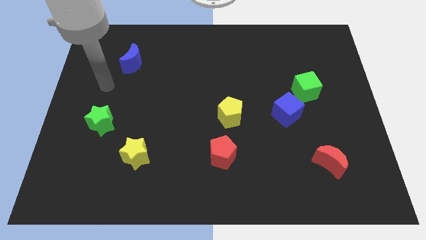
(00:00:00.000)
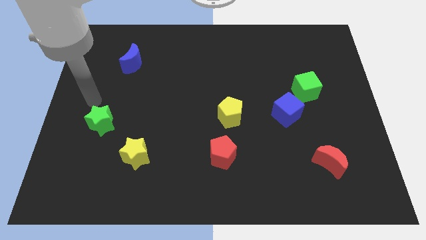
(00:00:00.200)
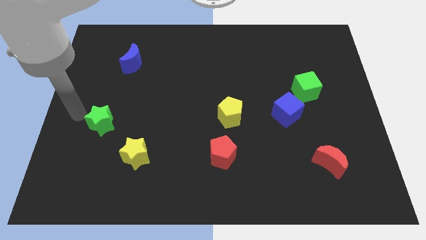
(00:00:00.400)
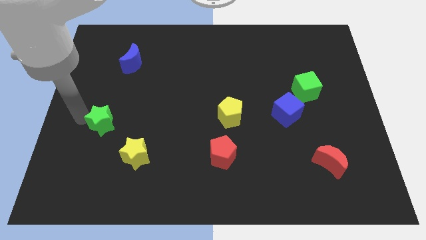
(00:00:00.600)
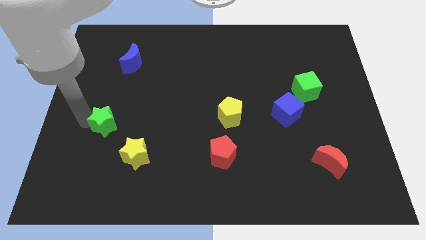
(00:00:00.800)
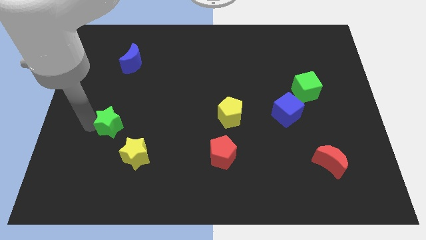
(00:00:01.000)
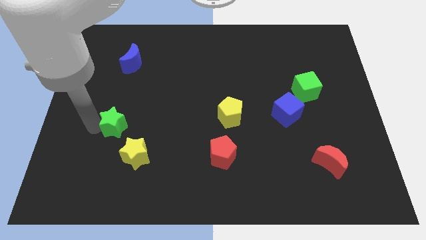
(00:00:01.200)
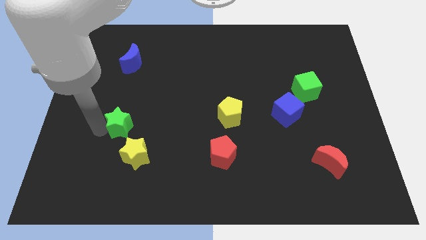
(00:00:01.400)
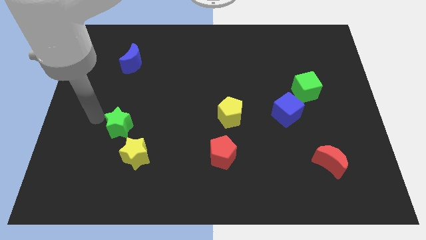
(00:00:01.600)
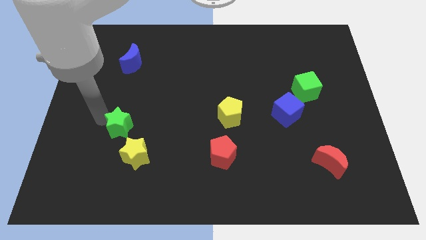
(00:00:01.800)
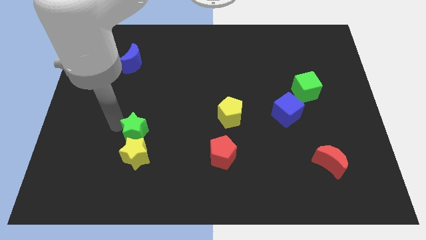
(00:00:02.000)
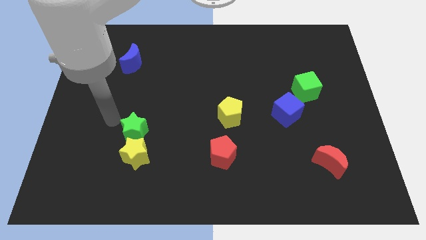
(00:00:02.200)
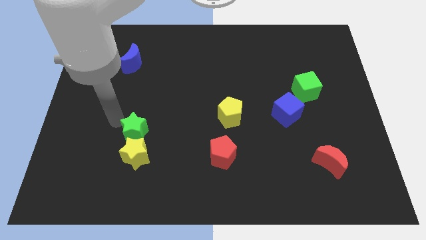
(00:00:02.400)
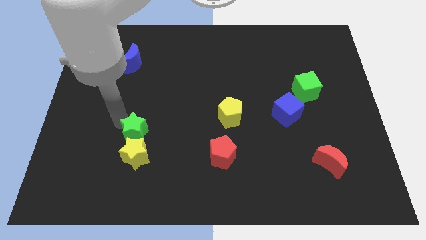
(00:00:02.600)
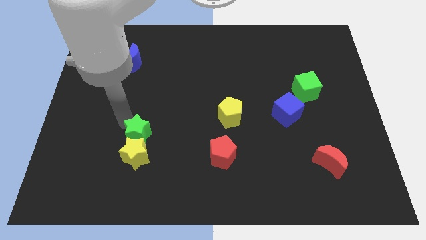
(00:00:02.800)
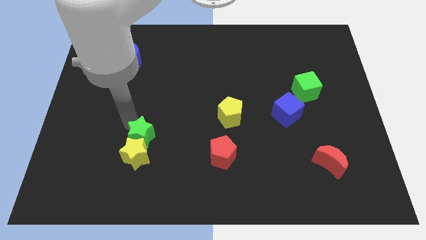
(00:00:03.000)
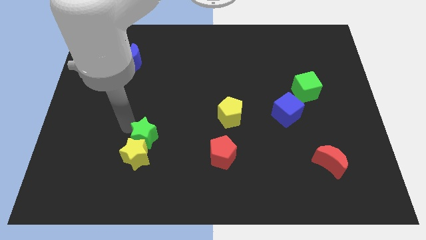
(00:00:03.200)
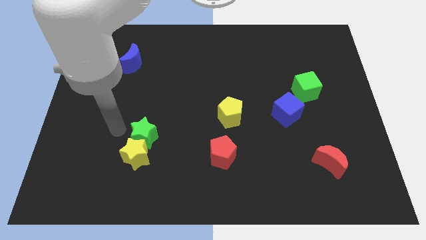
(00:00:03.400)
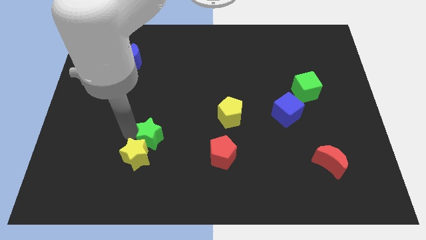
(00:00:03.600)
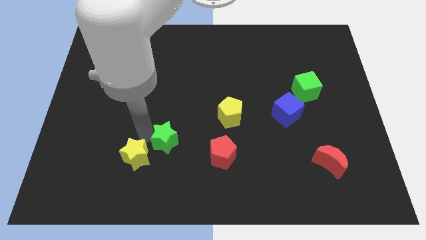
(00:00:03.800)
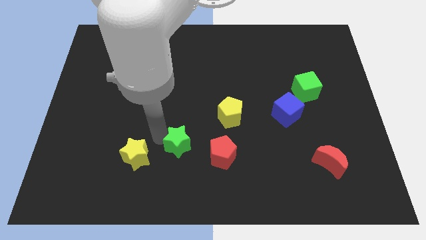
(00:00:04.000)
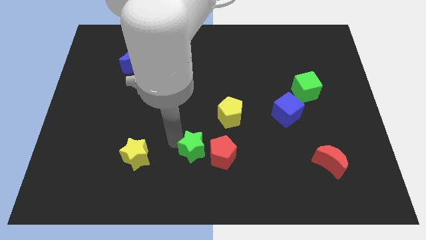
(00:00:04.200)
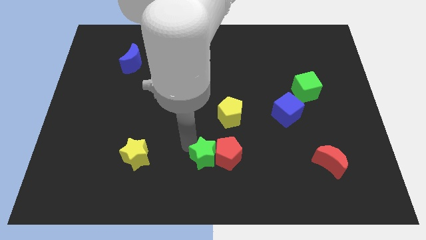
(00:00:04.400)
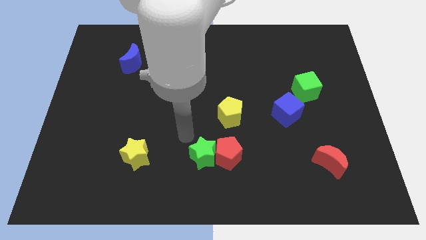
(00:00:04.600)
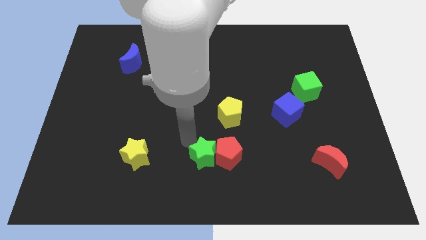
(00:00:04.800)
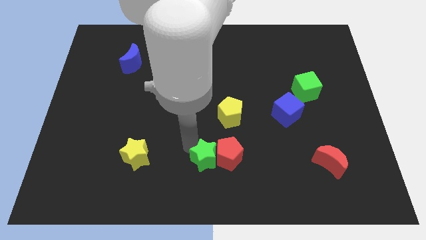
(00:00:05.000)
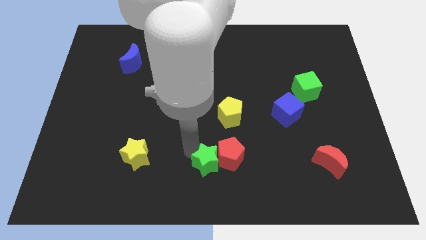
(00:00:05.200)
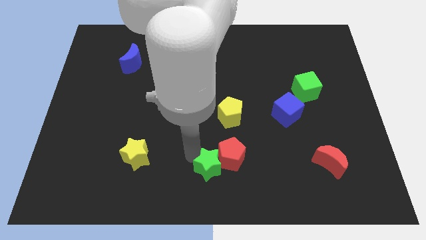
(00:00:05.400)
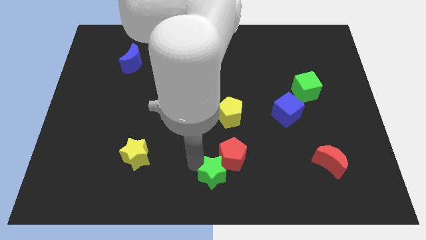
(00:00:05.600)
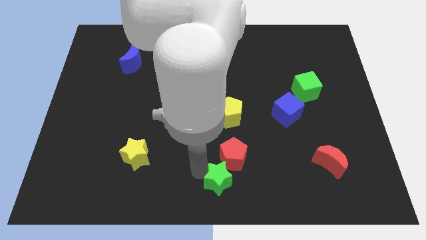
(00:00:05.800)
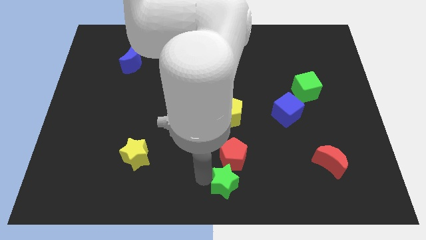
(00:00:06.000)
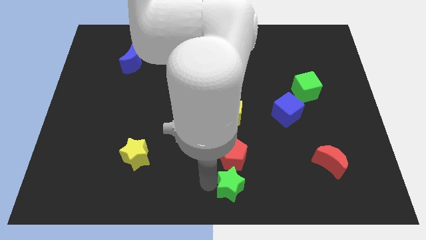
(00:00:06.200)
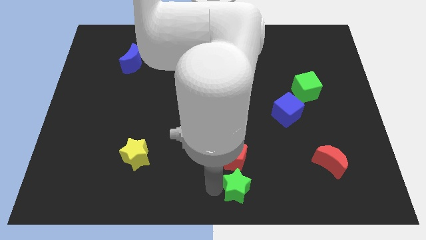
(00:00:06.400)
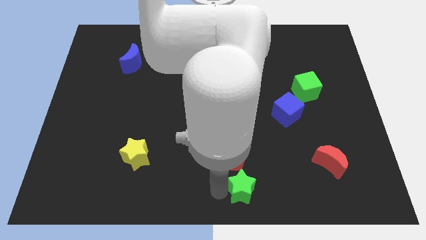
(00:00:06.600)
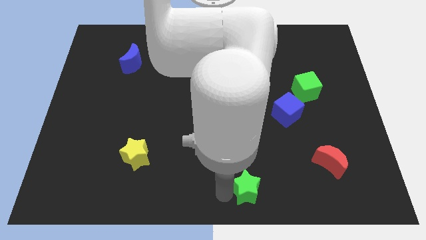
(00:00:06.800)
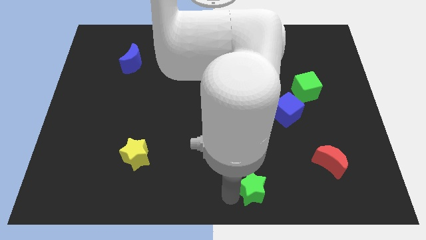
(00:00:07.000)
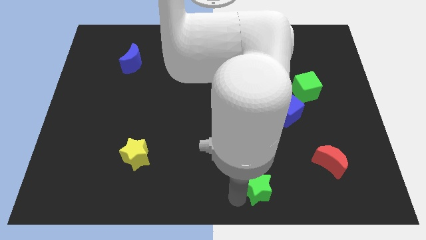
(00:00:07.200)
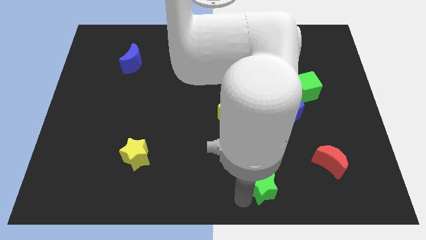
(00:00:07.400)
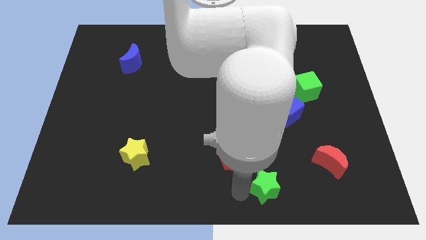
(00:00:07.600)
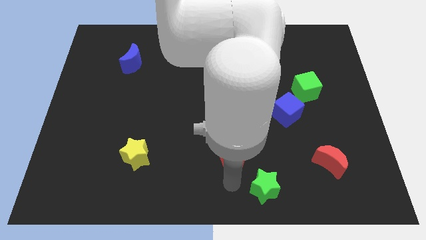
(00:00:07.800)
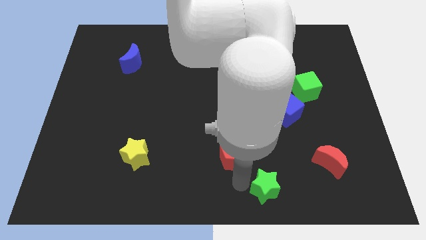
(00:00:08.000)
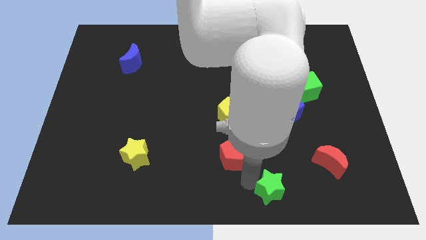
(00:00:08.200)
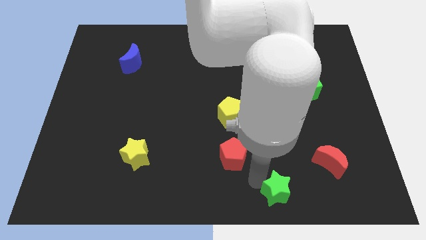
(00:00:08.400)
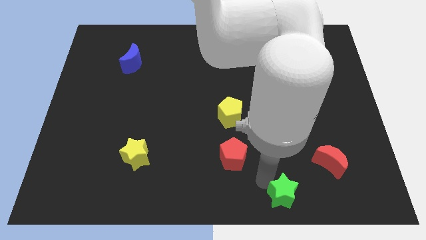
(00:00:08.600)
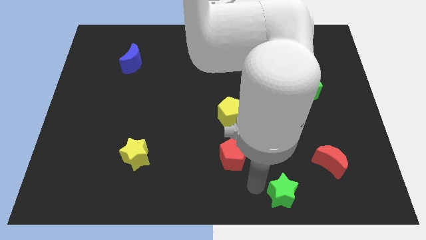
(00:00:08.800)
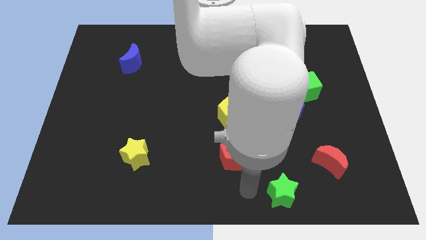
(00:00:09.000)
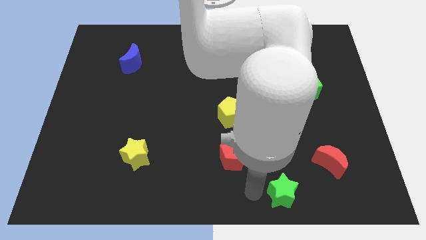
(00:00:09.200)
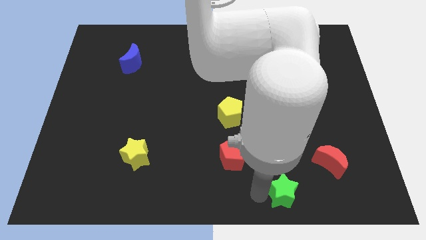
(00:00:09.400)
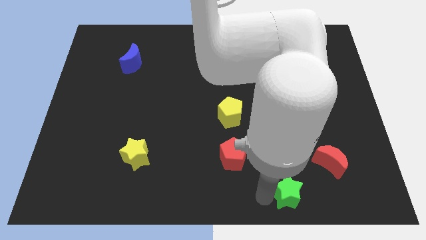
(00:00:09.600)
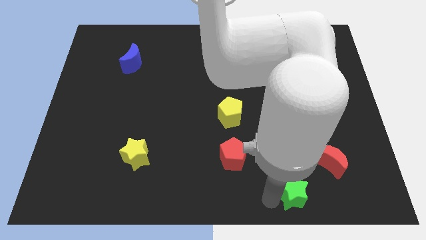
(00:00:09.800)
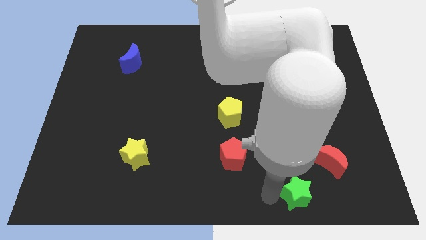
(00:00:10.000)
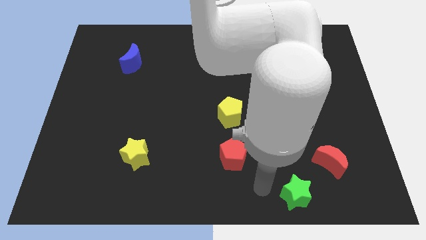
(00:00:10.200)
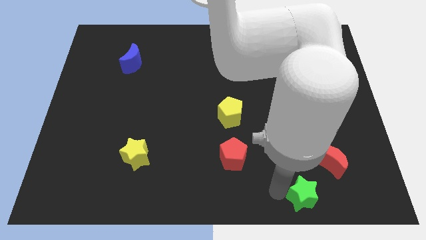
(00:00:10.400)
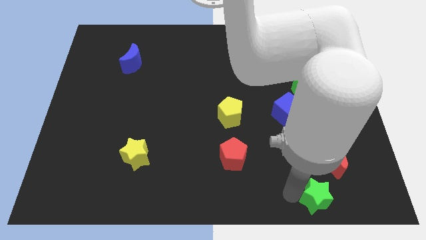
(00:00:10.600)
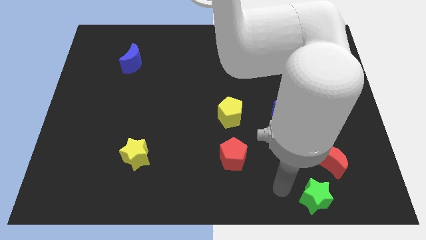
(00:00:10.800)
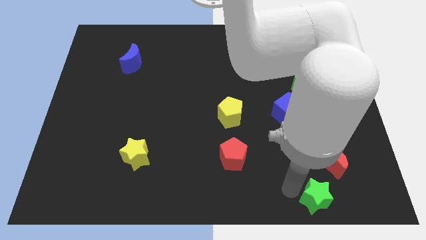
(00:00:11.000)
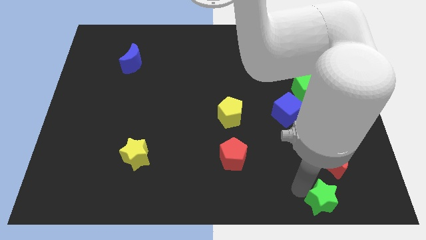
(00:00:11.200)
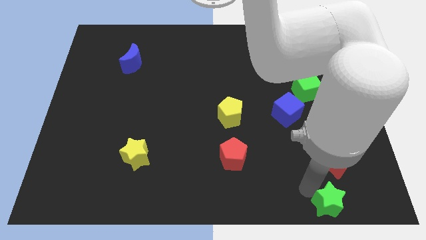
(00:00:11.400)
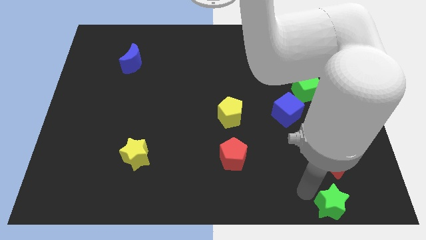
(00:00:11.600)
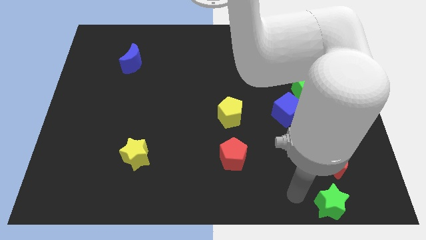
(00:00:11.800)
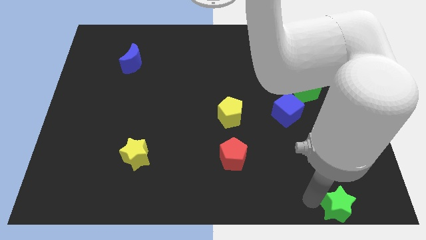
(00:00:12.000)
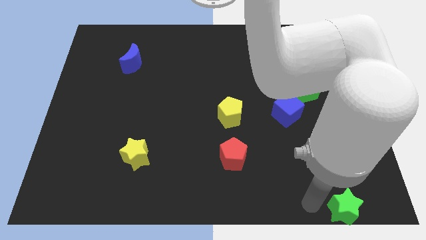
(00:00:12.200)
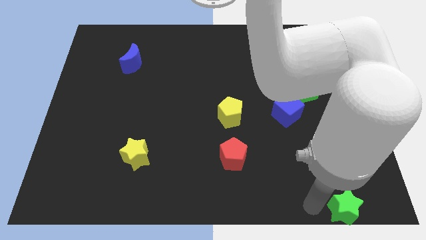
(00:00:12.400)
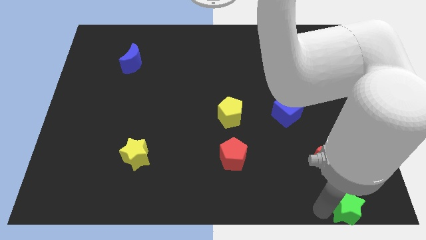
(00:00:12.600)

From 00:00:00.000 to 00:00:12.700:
move the green star to the lower right corner
